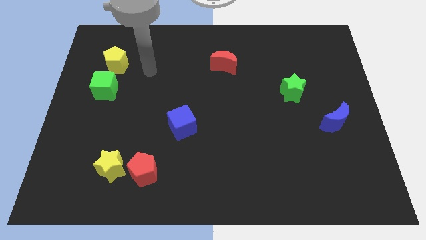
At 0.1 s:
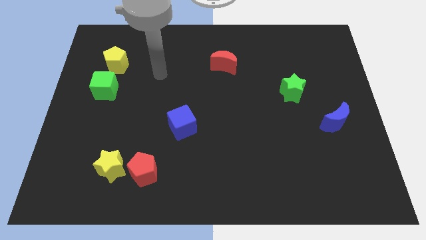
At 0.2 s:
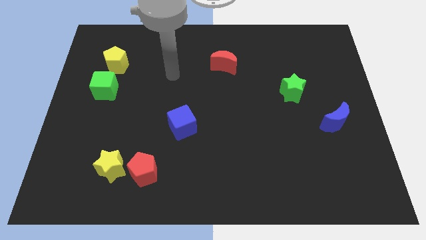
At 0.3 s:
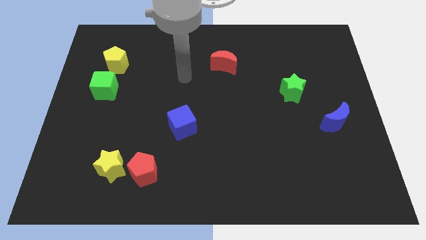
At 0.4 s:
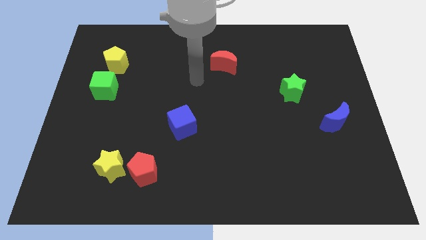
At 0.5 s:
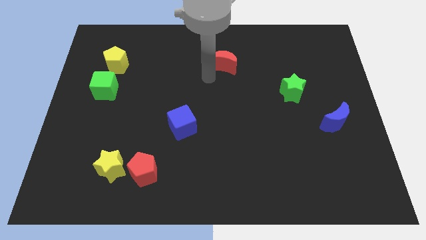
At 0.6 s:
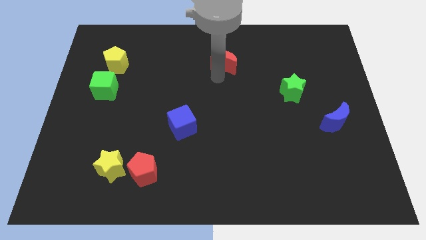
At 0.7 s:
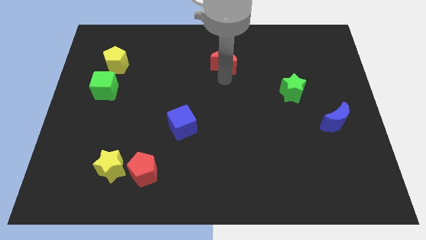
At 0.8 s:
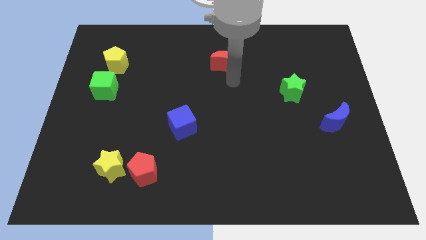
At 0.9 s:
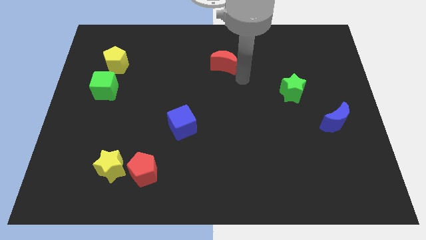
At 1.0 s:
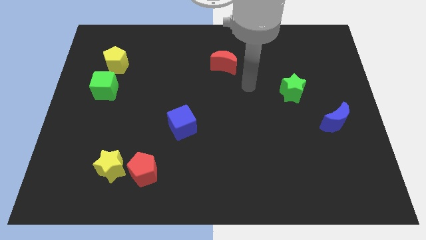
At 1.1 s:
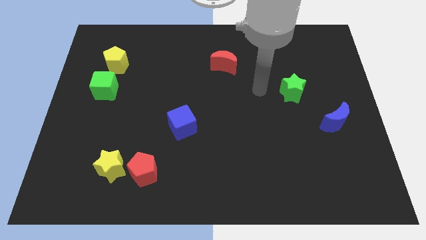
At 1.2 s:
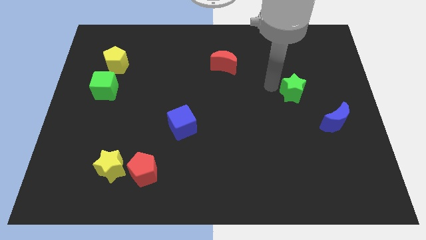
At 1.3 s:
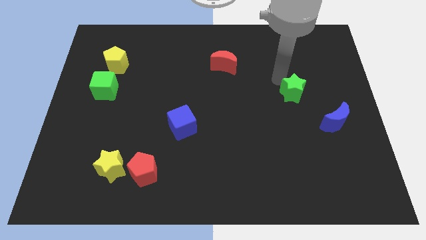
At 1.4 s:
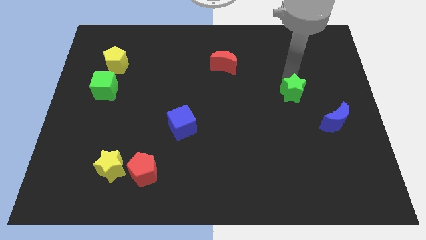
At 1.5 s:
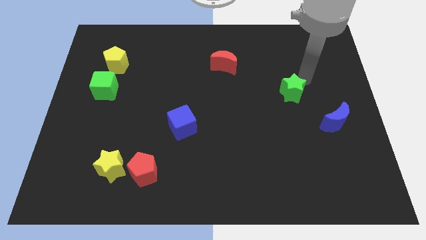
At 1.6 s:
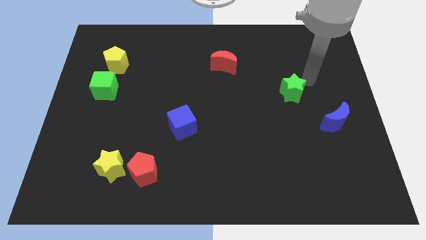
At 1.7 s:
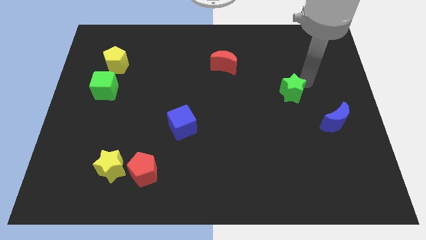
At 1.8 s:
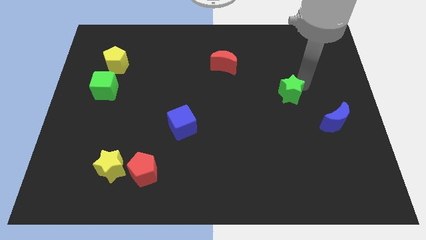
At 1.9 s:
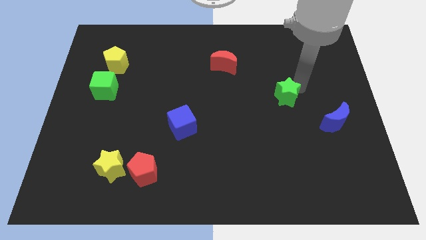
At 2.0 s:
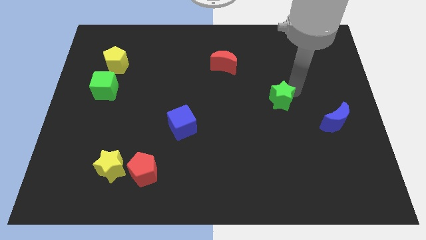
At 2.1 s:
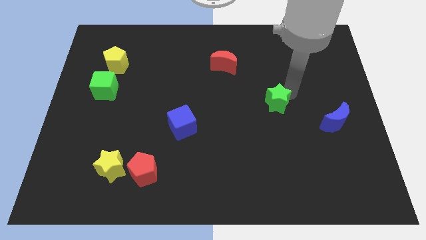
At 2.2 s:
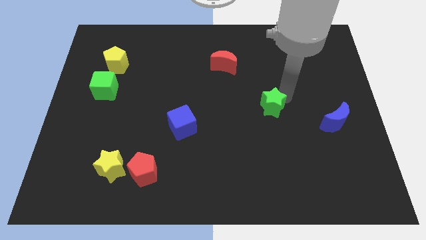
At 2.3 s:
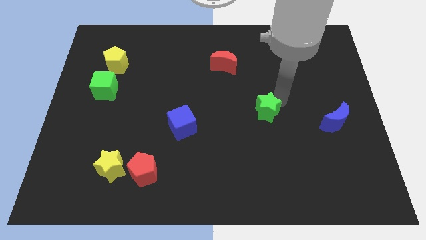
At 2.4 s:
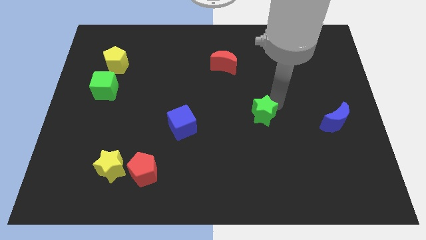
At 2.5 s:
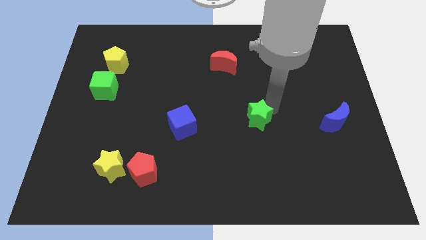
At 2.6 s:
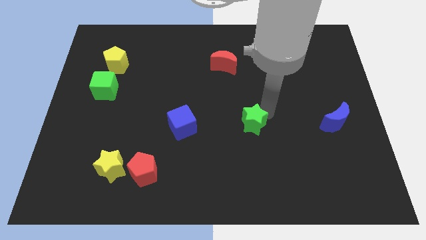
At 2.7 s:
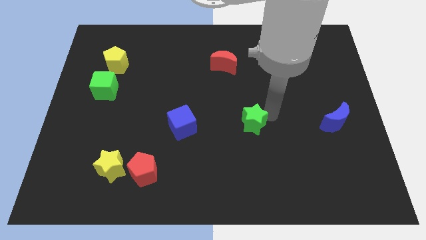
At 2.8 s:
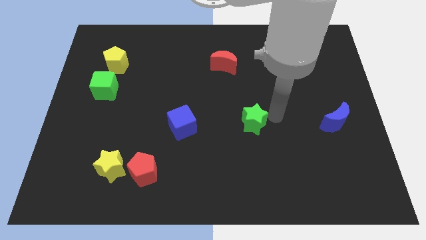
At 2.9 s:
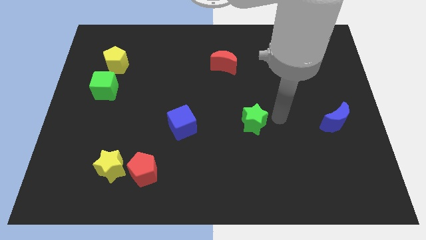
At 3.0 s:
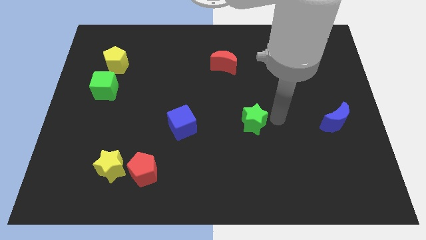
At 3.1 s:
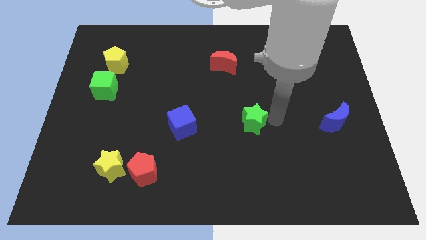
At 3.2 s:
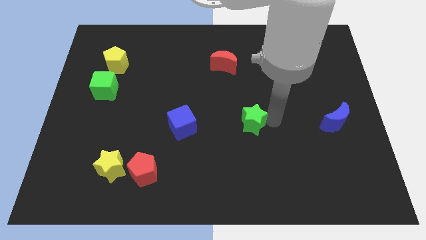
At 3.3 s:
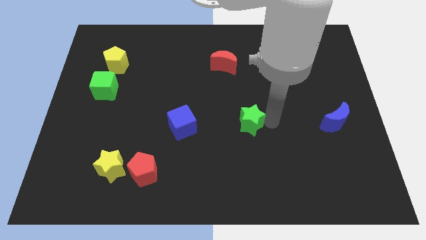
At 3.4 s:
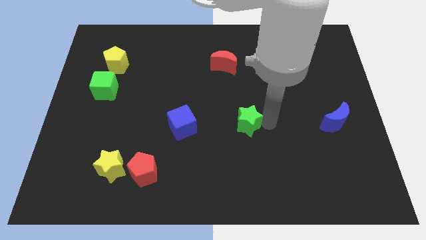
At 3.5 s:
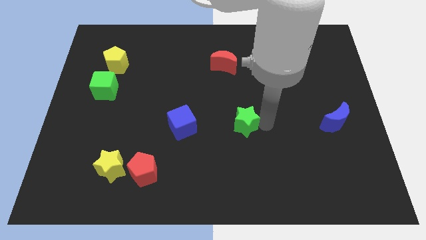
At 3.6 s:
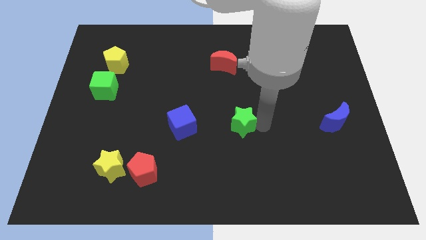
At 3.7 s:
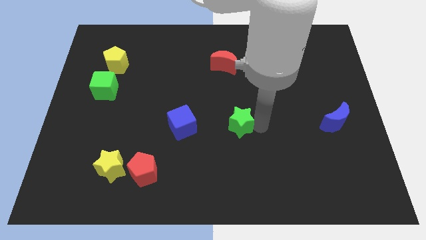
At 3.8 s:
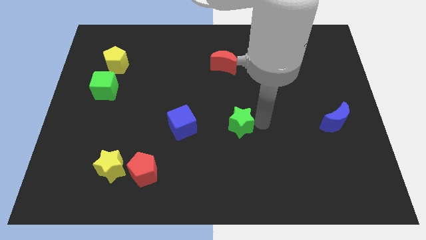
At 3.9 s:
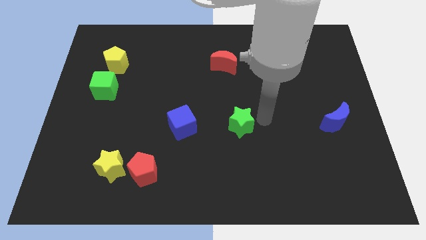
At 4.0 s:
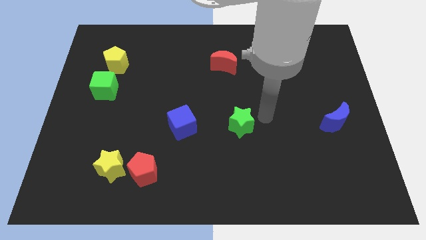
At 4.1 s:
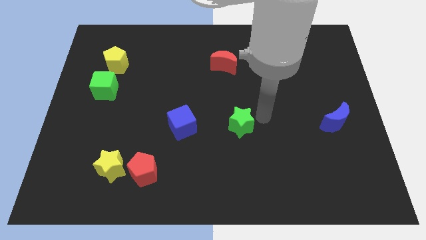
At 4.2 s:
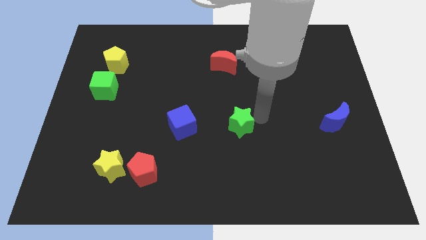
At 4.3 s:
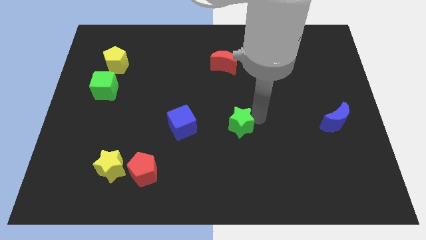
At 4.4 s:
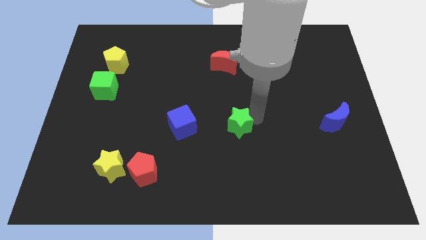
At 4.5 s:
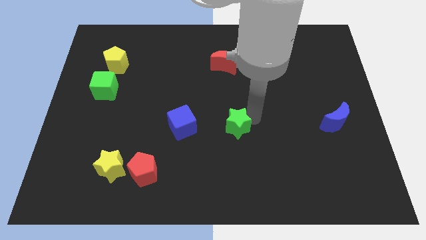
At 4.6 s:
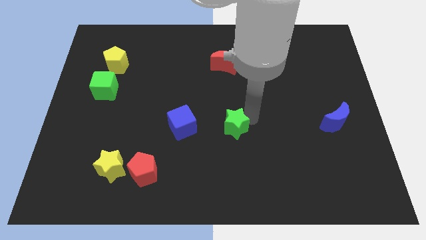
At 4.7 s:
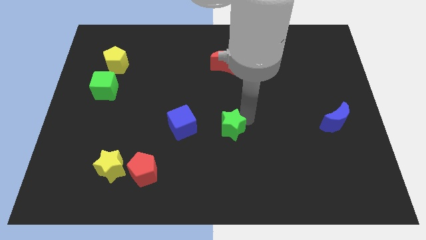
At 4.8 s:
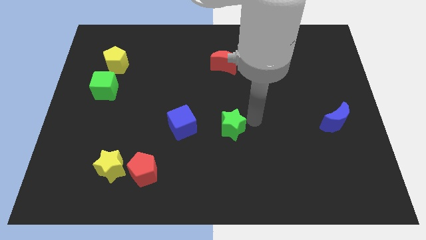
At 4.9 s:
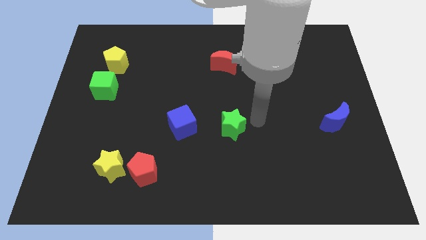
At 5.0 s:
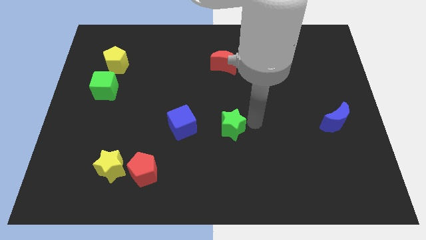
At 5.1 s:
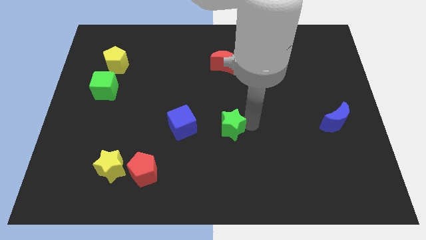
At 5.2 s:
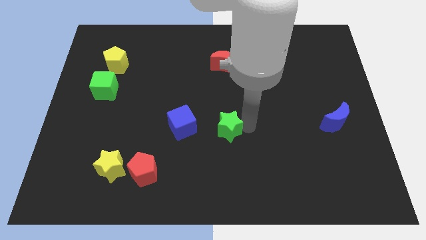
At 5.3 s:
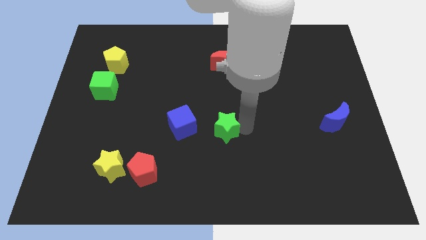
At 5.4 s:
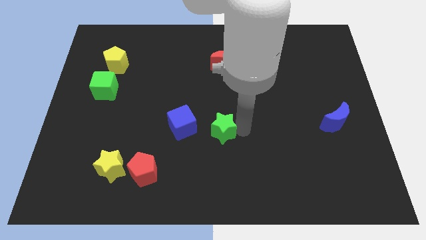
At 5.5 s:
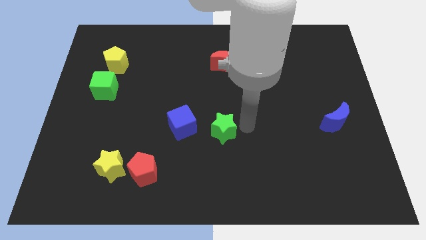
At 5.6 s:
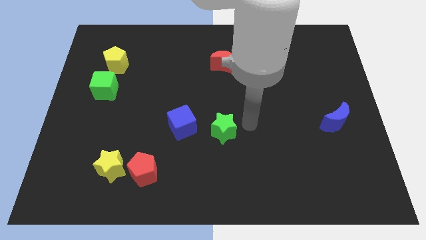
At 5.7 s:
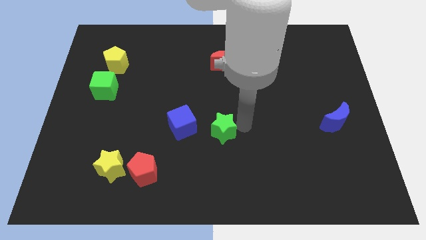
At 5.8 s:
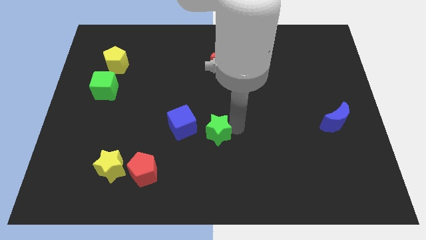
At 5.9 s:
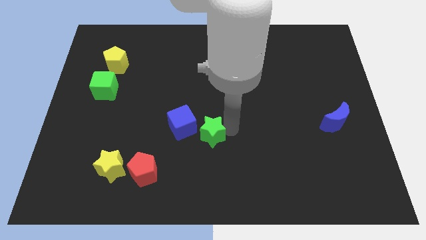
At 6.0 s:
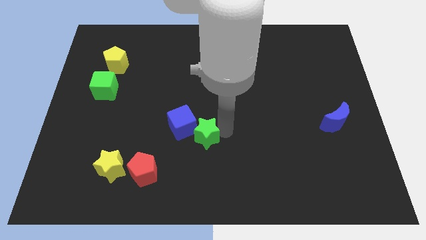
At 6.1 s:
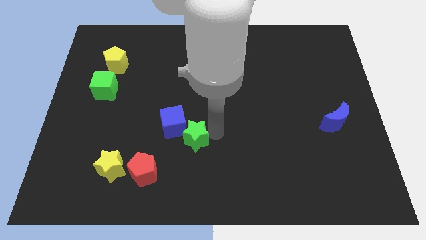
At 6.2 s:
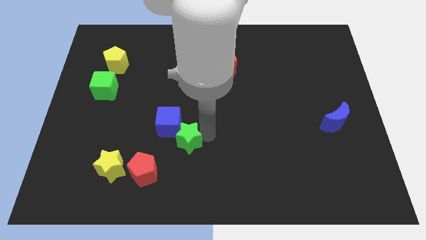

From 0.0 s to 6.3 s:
move the green star to the top right side of the red pentagon
